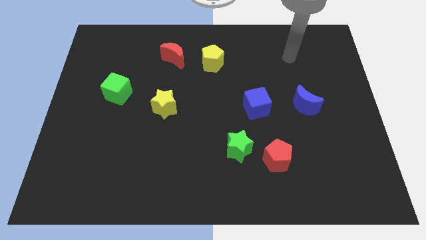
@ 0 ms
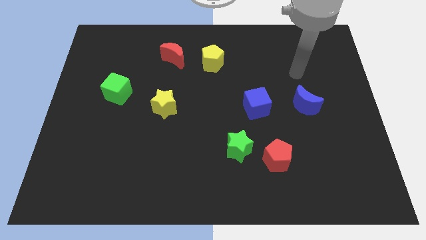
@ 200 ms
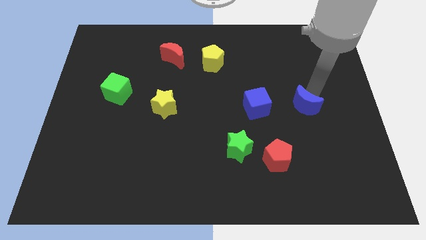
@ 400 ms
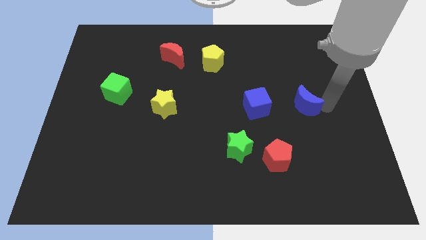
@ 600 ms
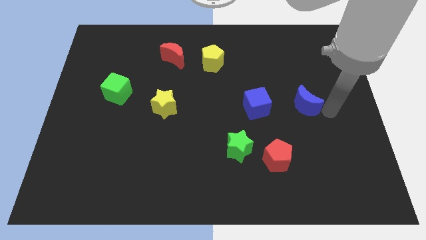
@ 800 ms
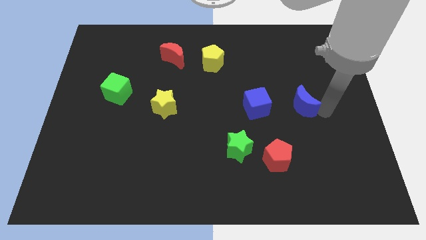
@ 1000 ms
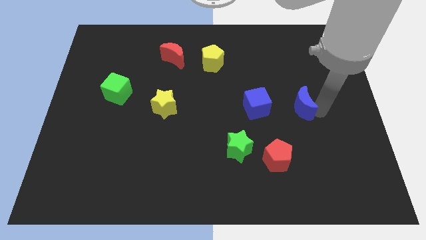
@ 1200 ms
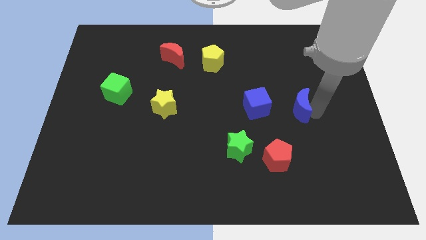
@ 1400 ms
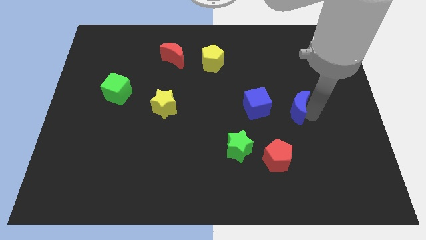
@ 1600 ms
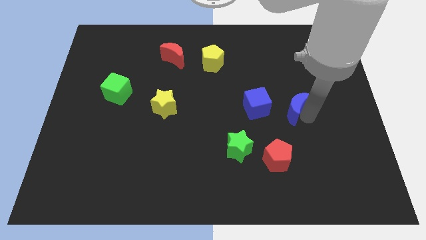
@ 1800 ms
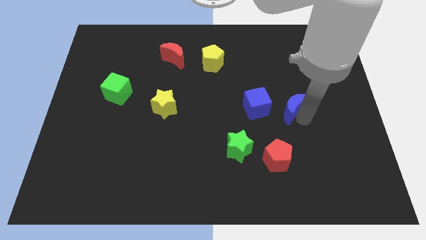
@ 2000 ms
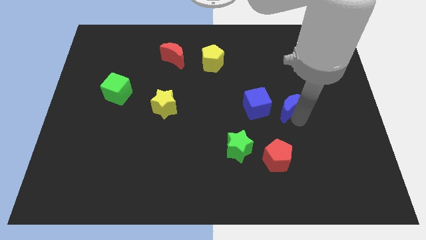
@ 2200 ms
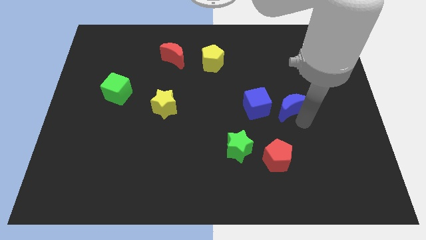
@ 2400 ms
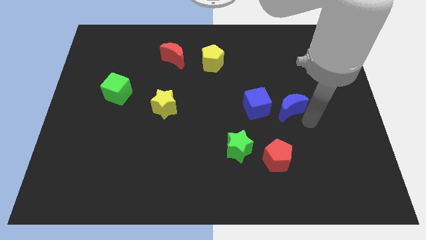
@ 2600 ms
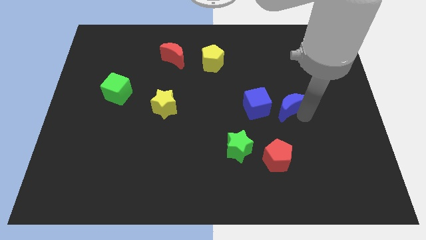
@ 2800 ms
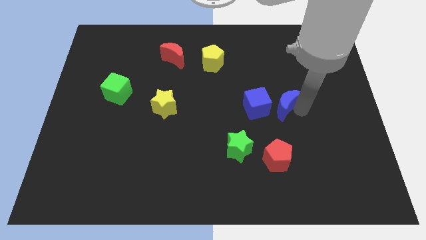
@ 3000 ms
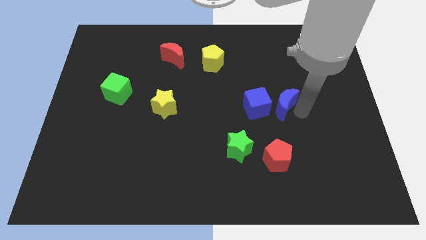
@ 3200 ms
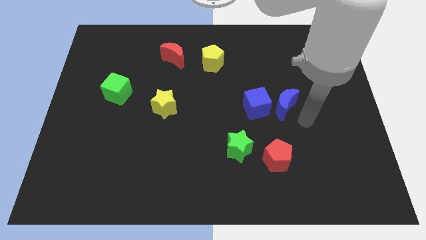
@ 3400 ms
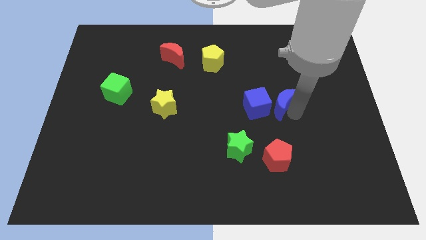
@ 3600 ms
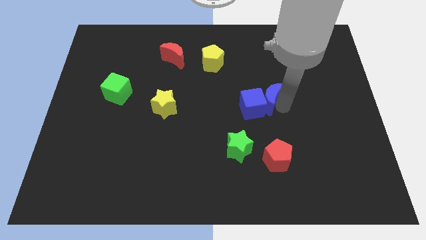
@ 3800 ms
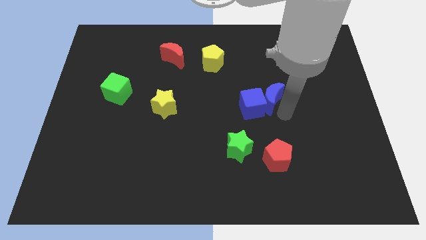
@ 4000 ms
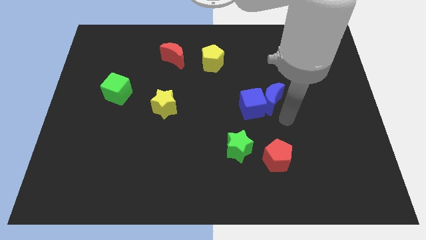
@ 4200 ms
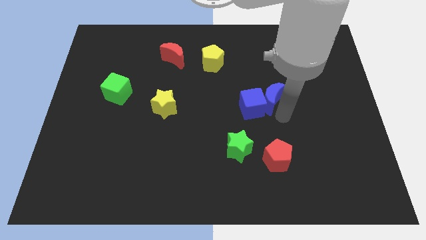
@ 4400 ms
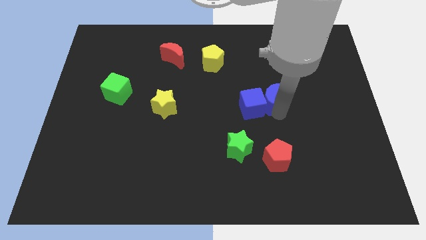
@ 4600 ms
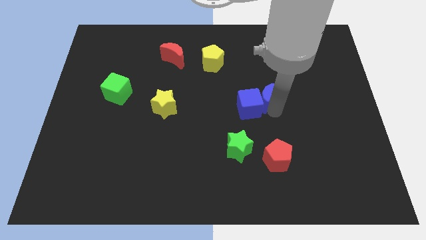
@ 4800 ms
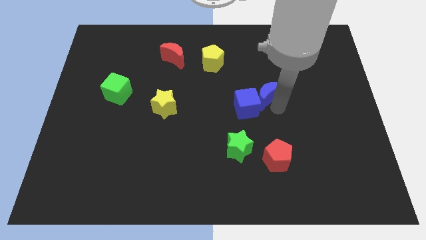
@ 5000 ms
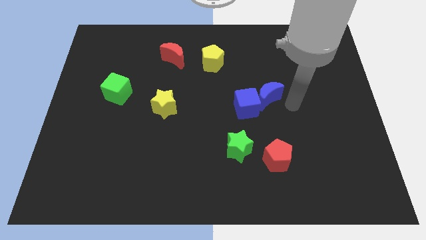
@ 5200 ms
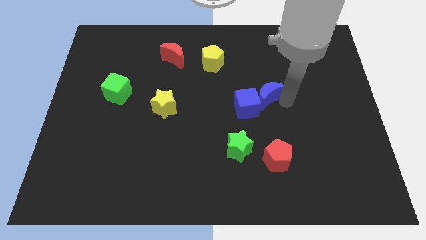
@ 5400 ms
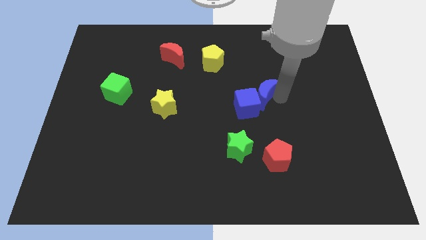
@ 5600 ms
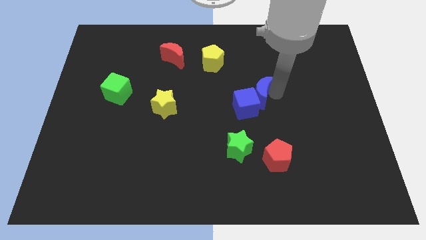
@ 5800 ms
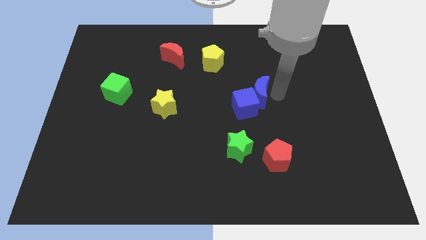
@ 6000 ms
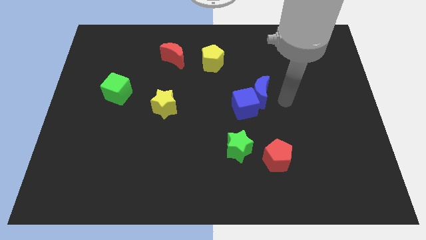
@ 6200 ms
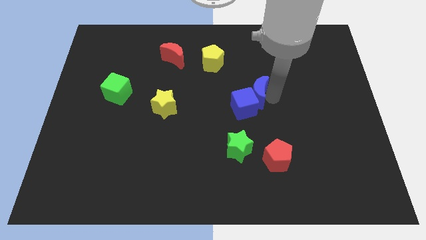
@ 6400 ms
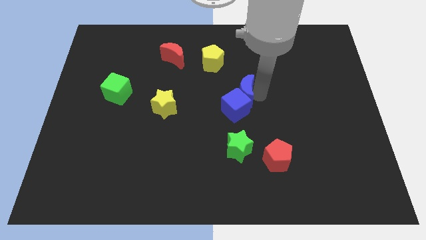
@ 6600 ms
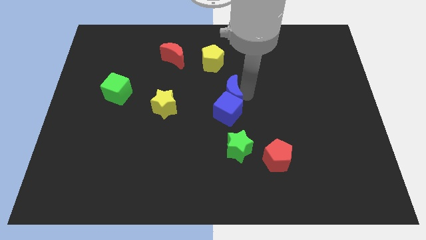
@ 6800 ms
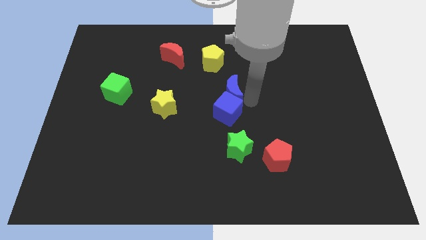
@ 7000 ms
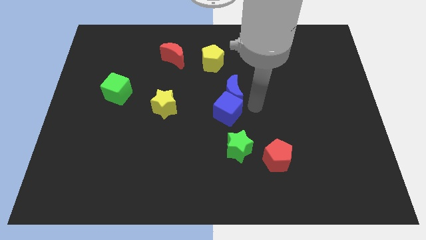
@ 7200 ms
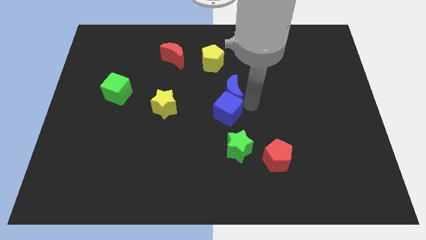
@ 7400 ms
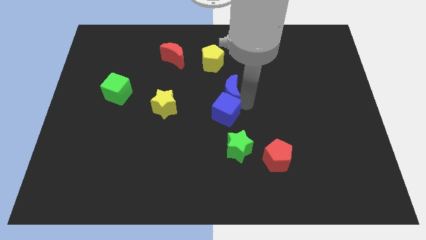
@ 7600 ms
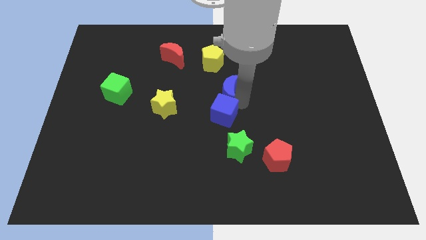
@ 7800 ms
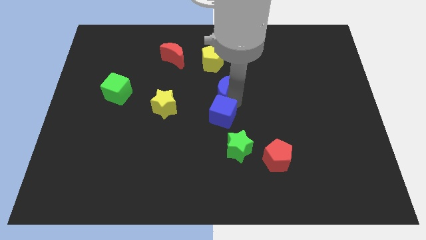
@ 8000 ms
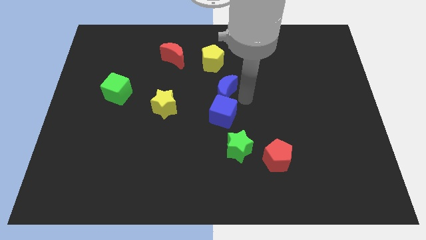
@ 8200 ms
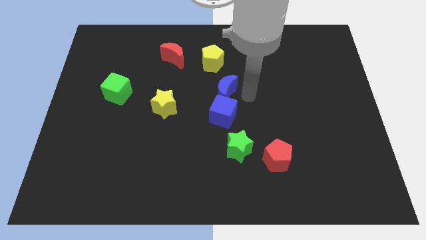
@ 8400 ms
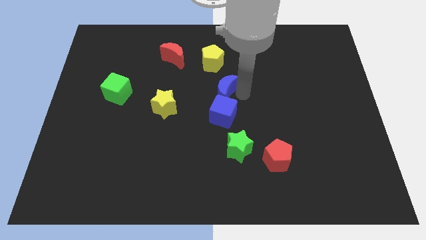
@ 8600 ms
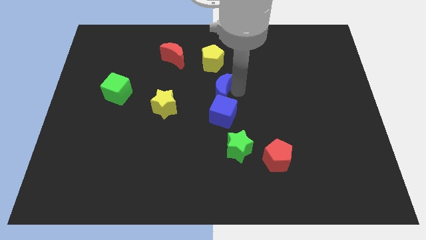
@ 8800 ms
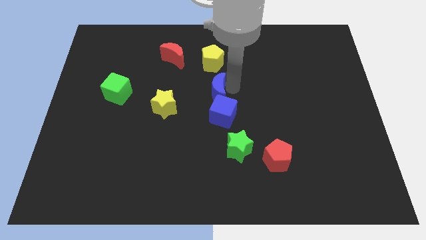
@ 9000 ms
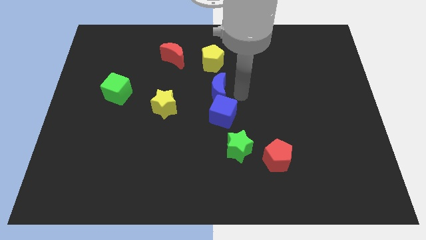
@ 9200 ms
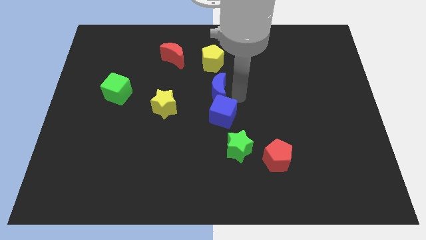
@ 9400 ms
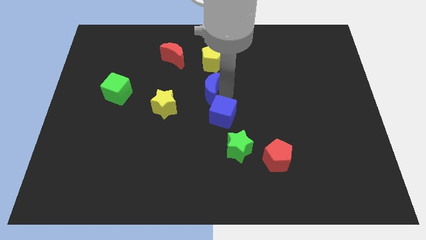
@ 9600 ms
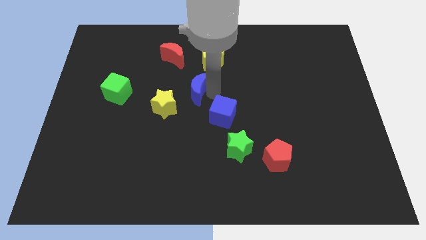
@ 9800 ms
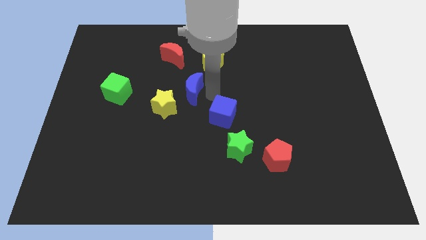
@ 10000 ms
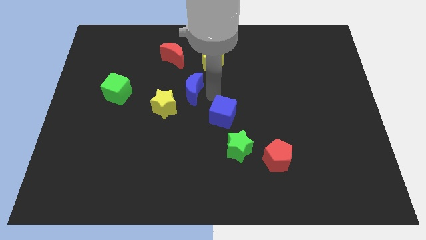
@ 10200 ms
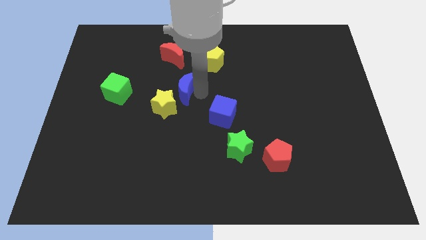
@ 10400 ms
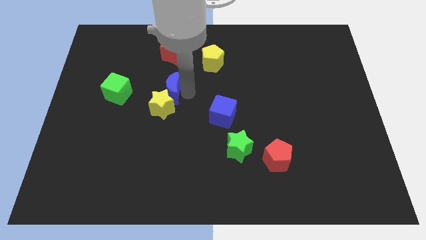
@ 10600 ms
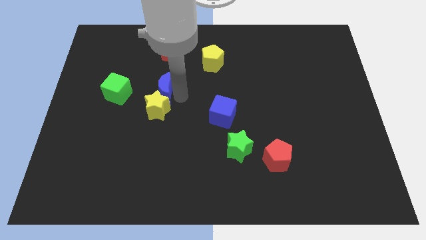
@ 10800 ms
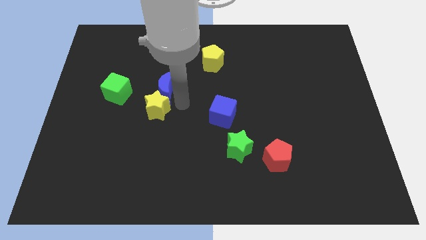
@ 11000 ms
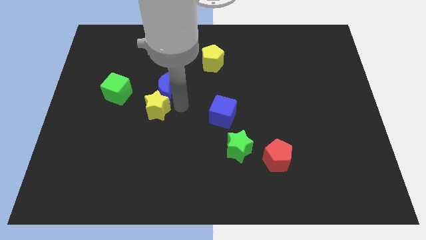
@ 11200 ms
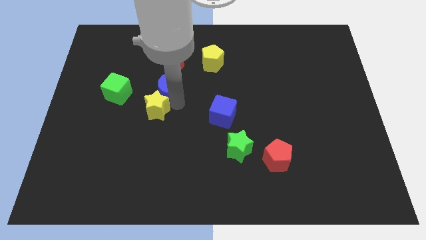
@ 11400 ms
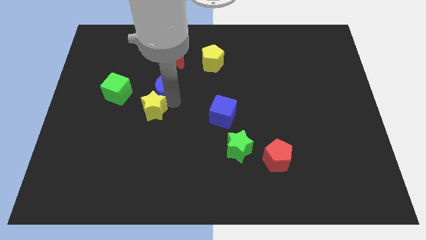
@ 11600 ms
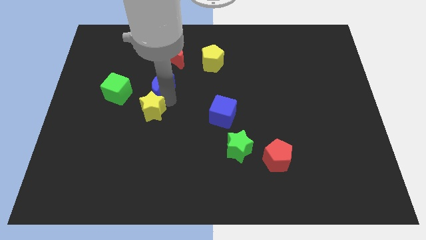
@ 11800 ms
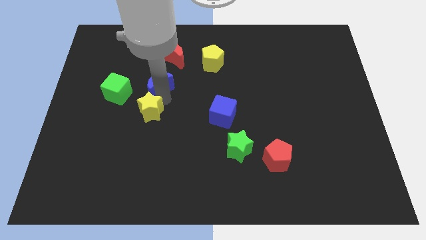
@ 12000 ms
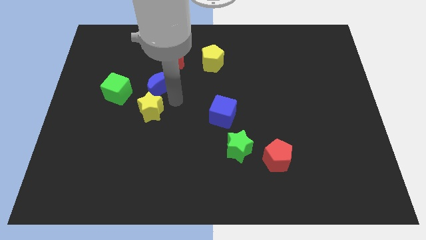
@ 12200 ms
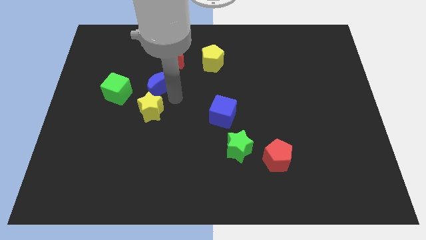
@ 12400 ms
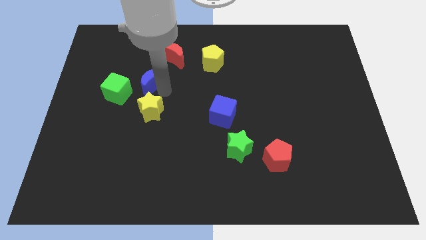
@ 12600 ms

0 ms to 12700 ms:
push the blue moon to the top right of the green cube

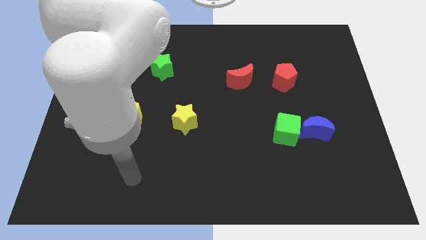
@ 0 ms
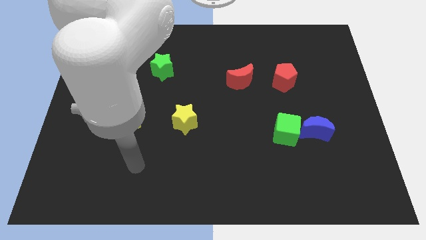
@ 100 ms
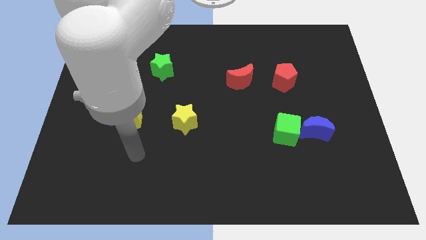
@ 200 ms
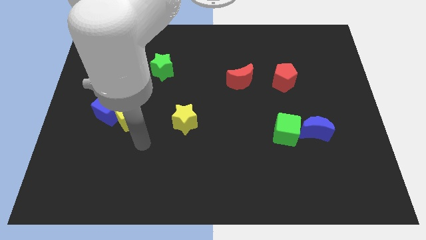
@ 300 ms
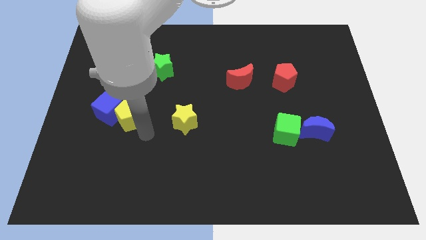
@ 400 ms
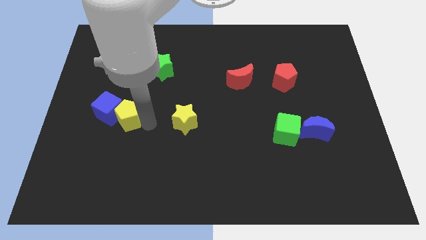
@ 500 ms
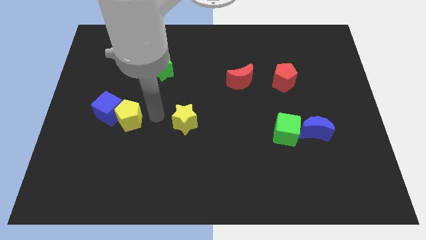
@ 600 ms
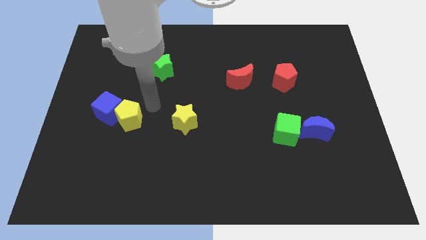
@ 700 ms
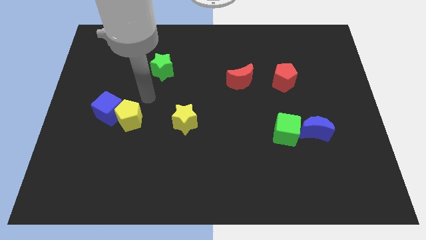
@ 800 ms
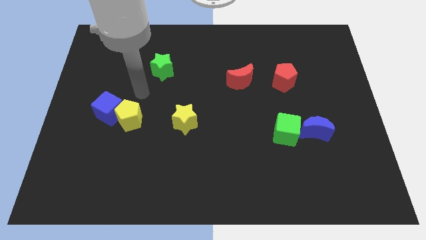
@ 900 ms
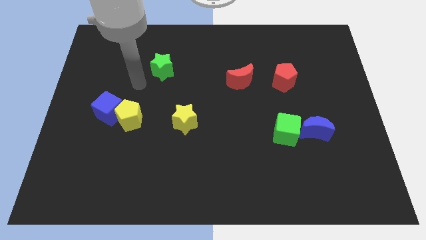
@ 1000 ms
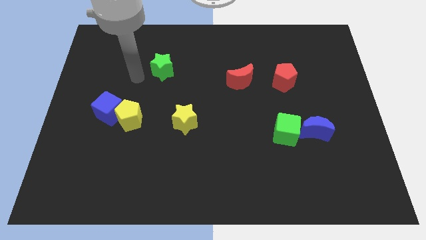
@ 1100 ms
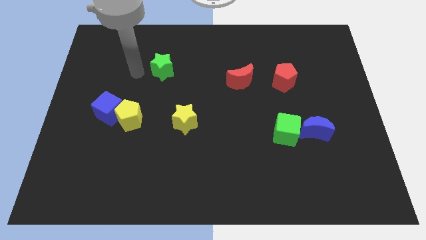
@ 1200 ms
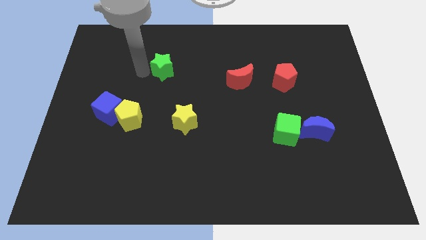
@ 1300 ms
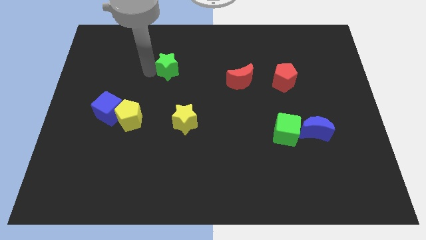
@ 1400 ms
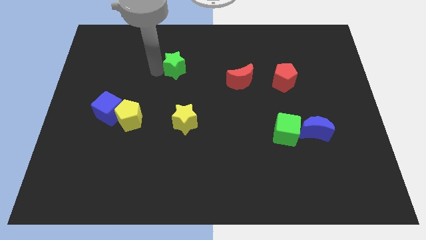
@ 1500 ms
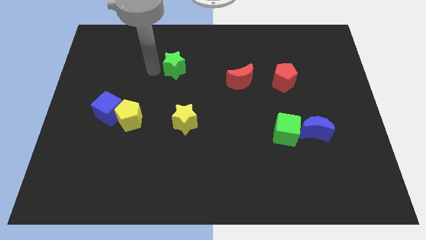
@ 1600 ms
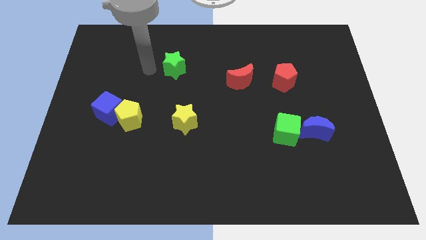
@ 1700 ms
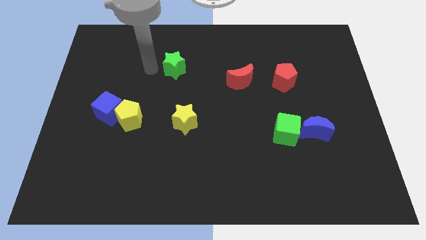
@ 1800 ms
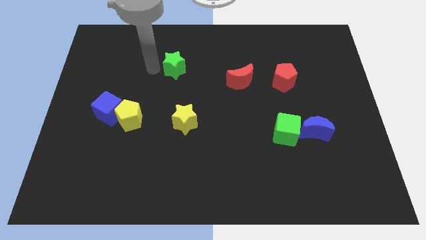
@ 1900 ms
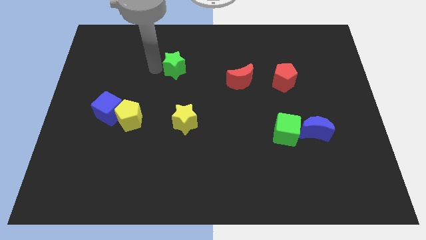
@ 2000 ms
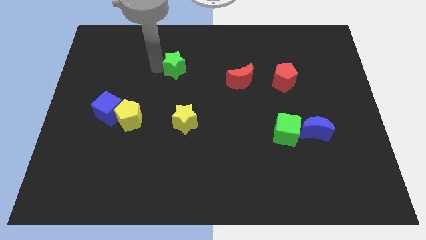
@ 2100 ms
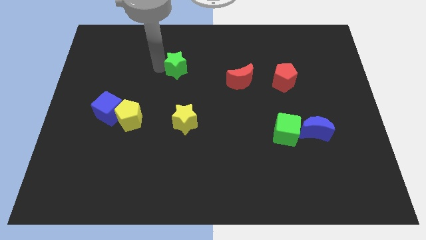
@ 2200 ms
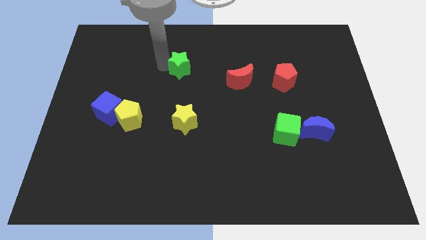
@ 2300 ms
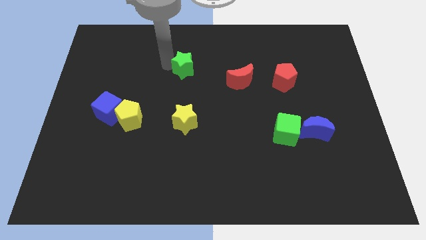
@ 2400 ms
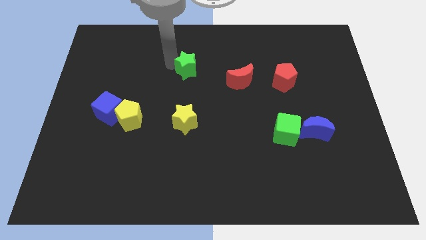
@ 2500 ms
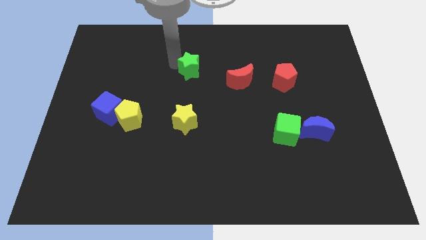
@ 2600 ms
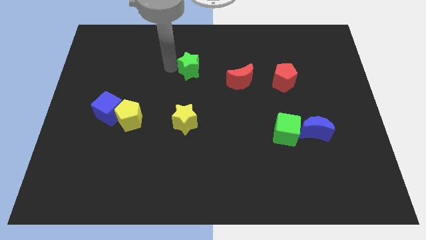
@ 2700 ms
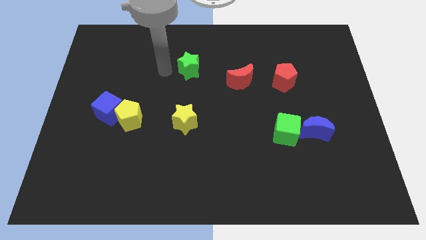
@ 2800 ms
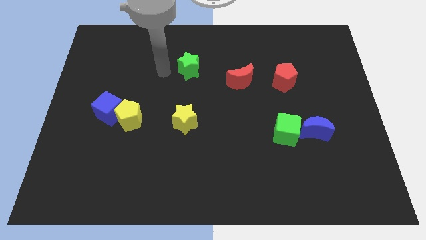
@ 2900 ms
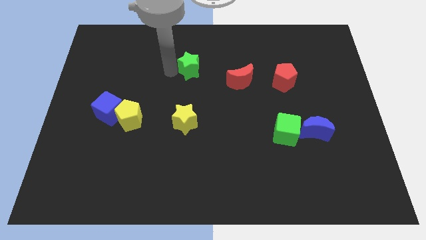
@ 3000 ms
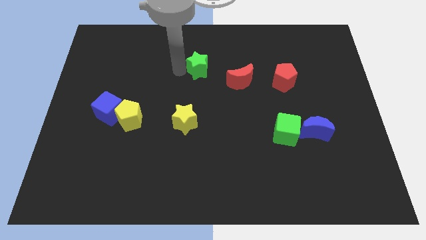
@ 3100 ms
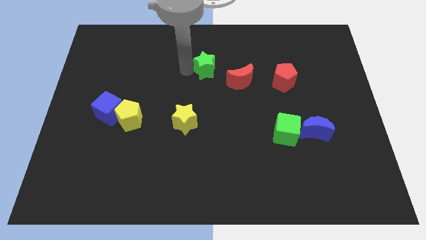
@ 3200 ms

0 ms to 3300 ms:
push the green star to the top left side of the red moon
